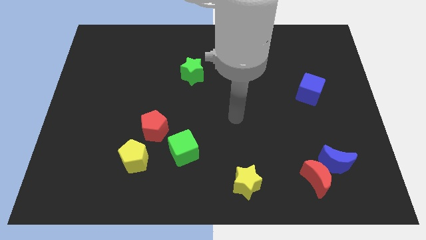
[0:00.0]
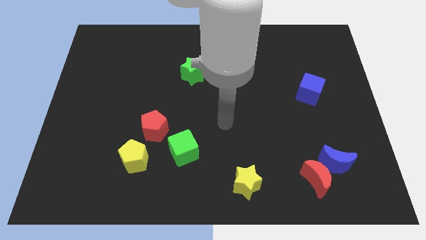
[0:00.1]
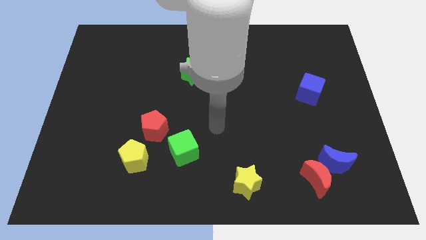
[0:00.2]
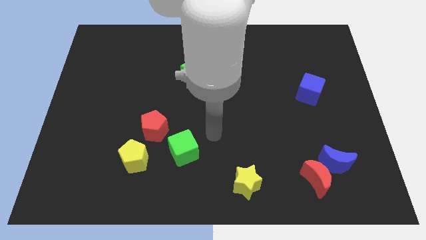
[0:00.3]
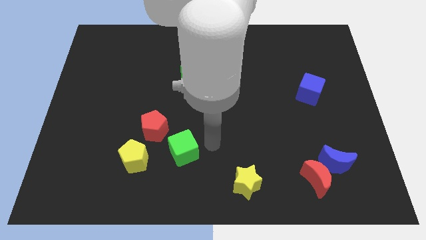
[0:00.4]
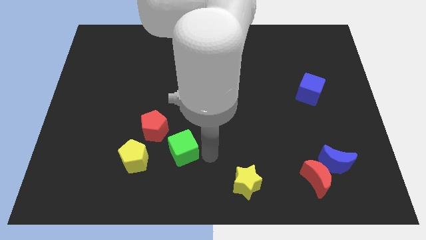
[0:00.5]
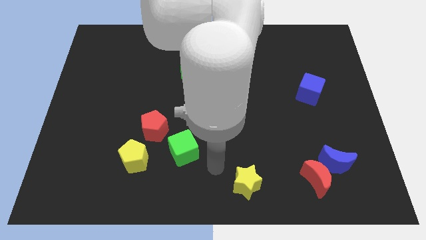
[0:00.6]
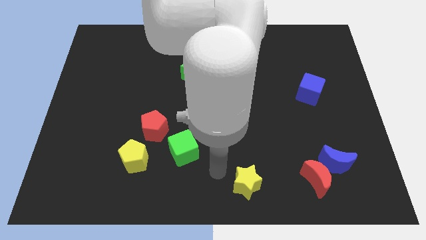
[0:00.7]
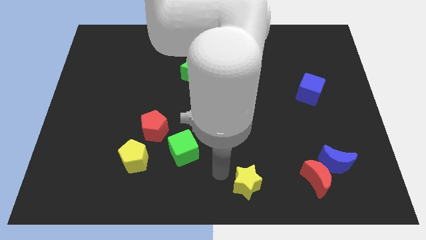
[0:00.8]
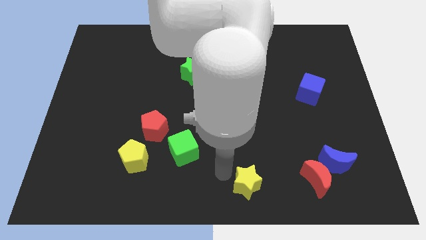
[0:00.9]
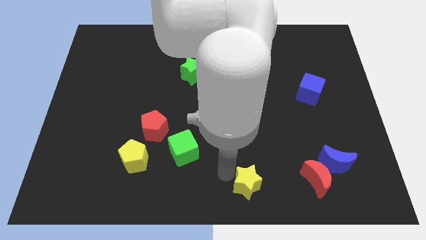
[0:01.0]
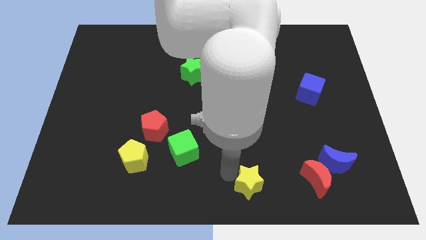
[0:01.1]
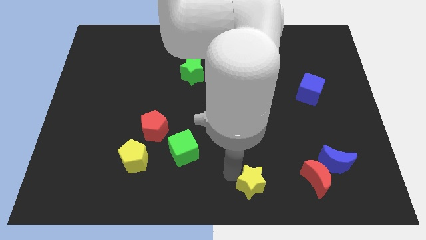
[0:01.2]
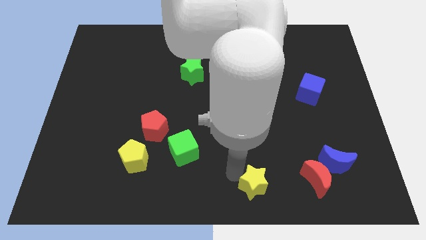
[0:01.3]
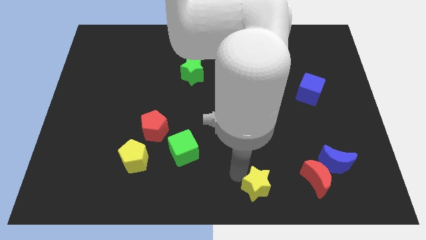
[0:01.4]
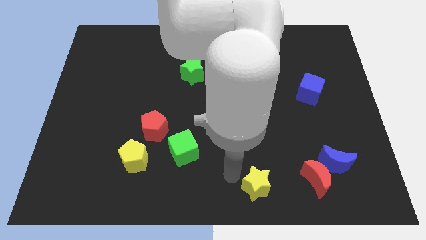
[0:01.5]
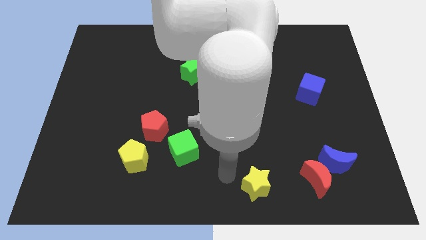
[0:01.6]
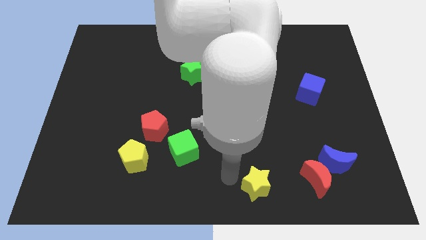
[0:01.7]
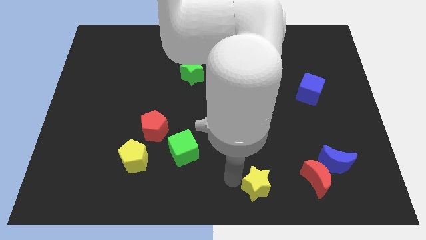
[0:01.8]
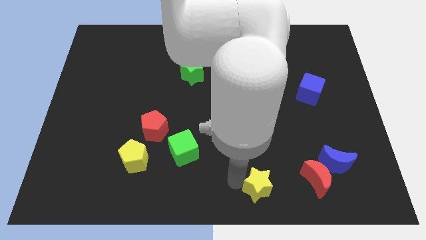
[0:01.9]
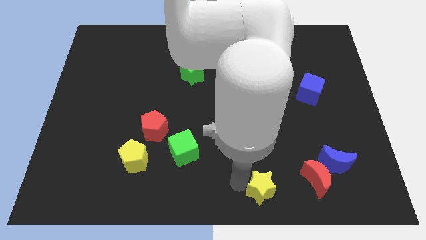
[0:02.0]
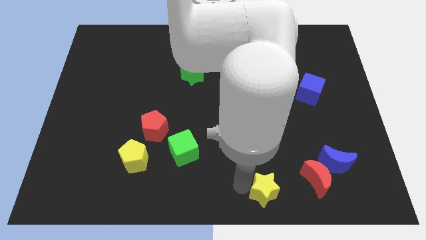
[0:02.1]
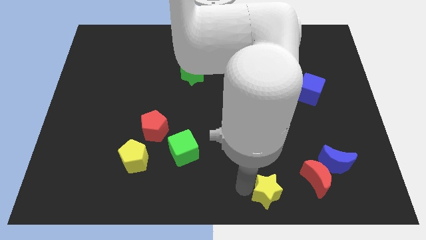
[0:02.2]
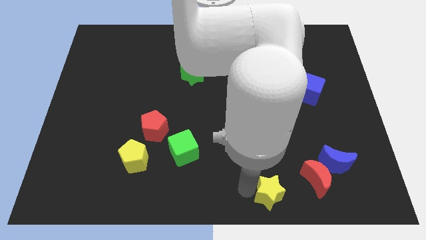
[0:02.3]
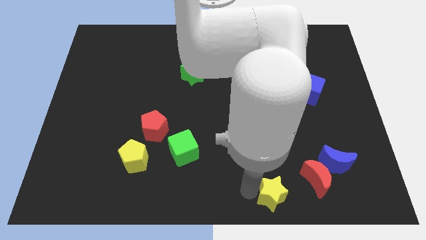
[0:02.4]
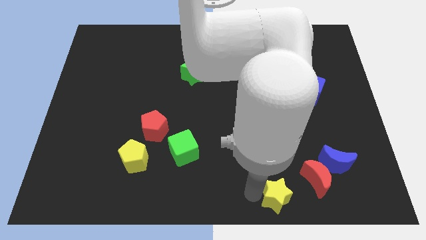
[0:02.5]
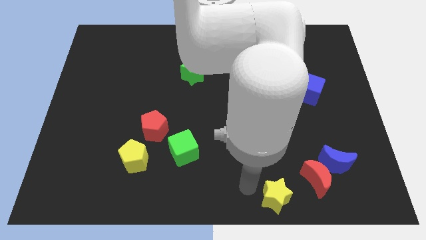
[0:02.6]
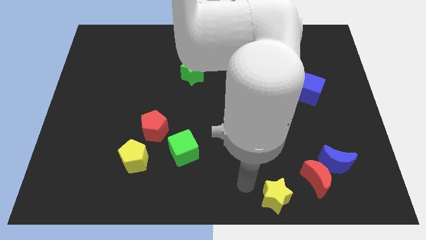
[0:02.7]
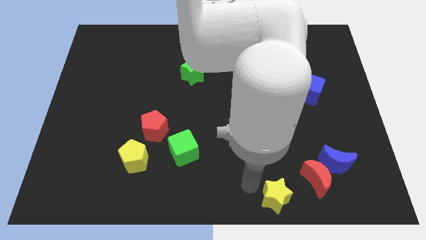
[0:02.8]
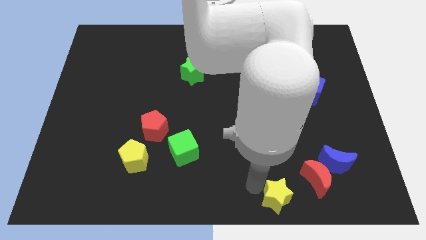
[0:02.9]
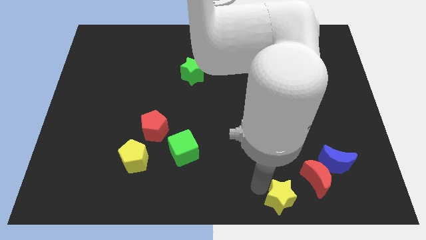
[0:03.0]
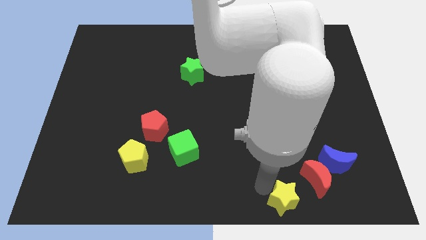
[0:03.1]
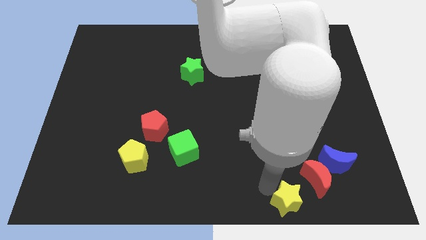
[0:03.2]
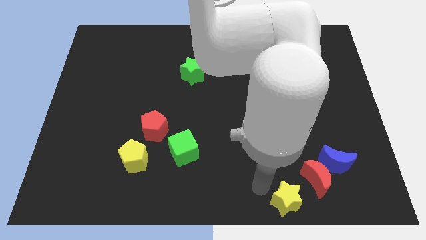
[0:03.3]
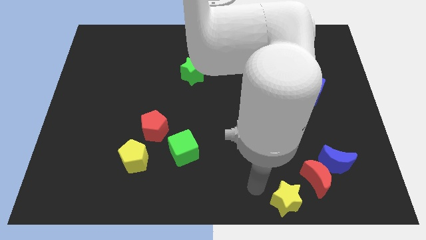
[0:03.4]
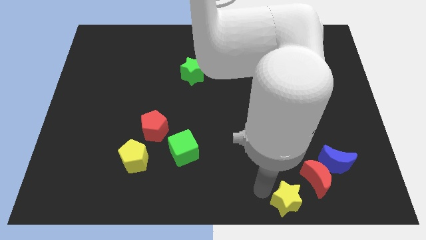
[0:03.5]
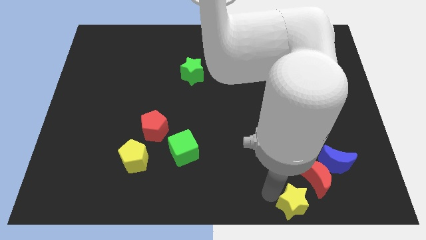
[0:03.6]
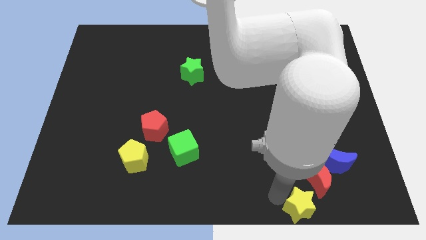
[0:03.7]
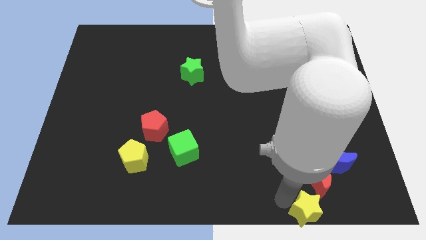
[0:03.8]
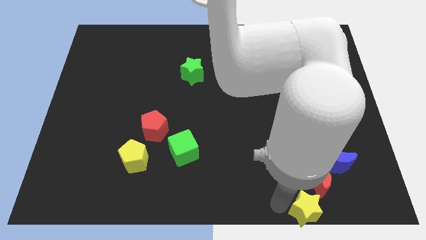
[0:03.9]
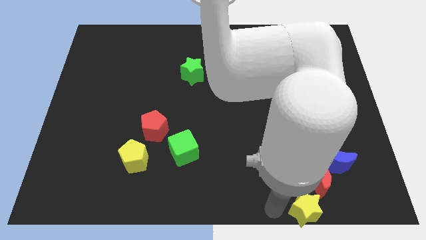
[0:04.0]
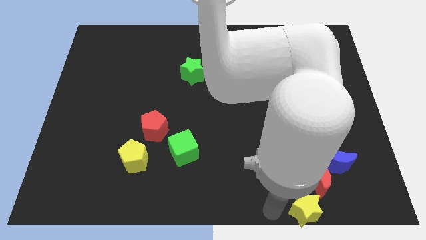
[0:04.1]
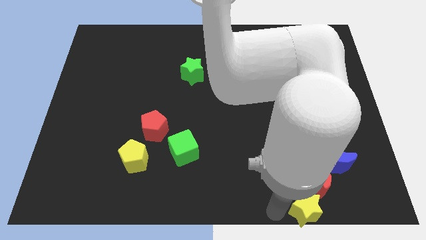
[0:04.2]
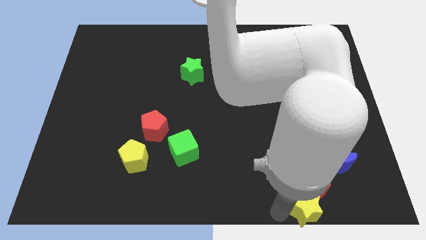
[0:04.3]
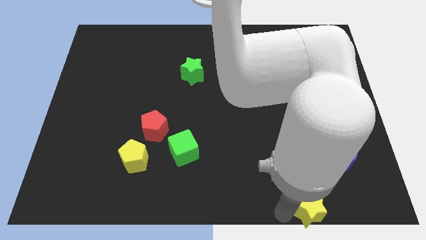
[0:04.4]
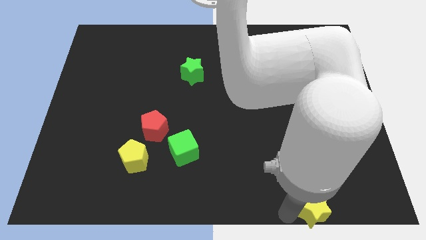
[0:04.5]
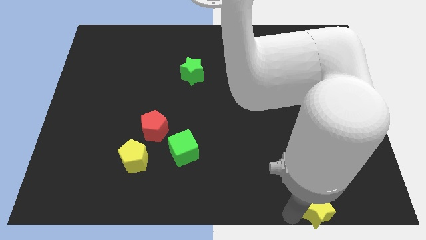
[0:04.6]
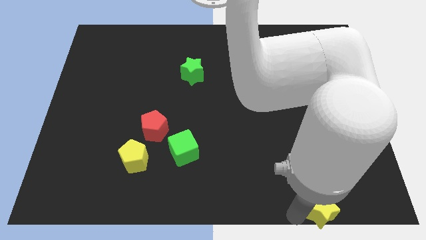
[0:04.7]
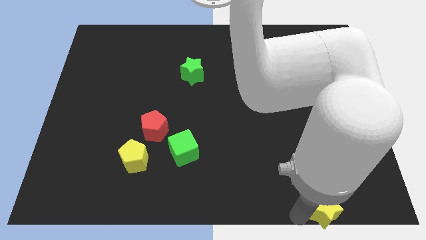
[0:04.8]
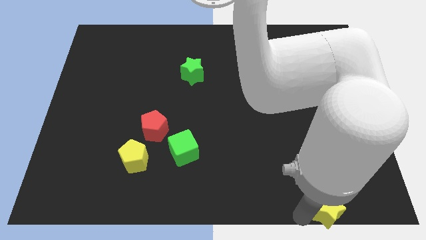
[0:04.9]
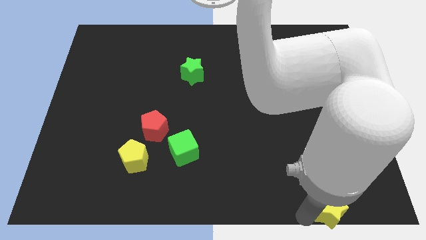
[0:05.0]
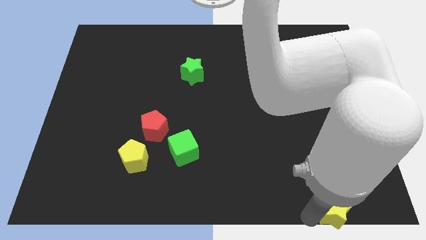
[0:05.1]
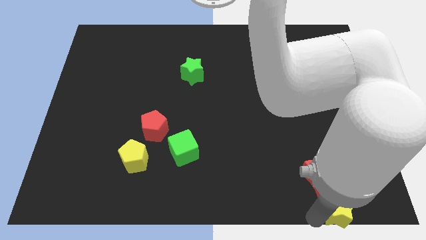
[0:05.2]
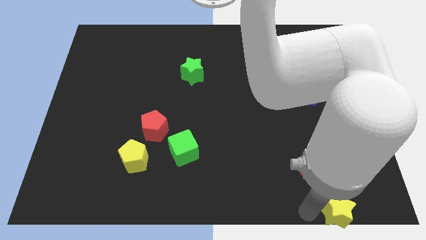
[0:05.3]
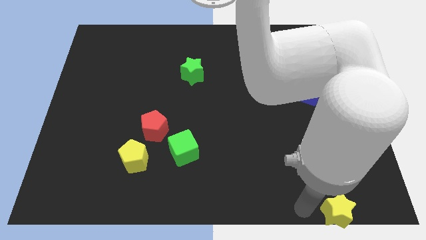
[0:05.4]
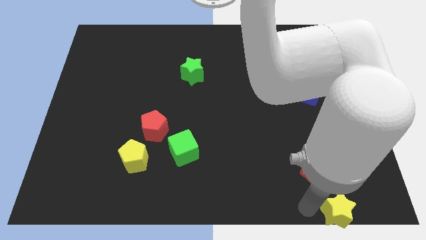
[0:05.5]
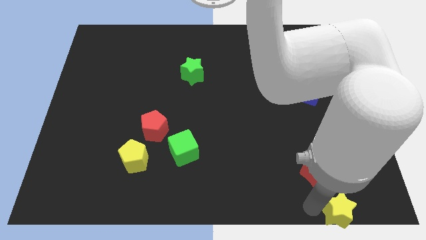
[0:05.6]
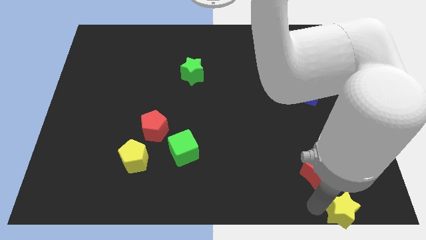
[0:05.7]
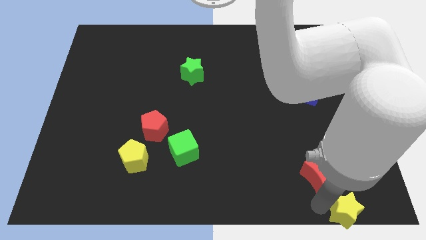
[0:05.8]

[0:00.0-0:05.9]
push the yellow star to the bottom right corner
